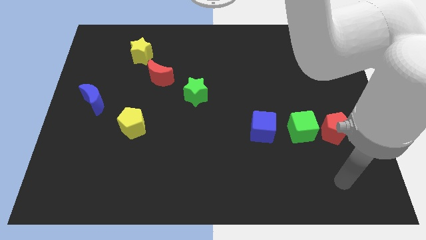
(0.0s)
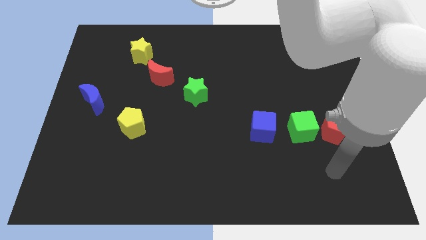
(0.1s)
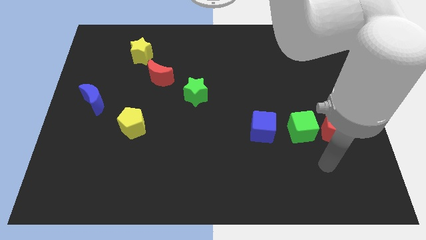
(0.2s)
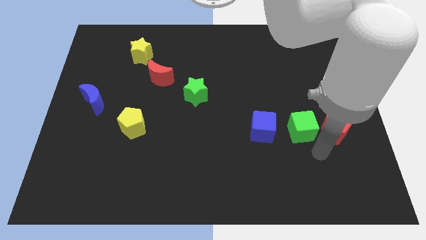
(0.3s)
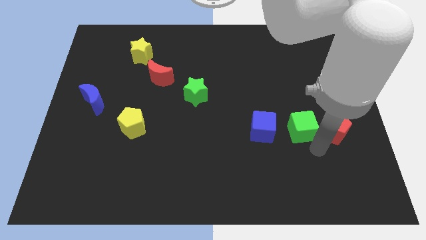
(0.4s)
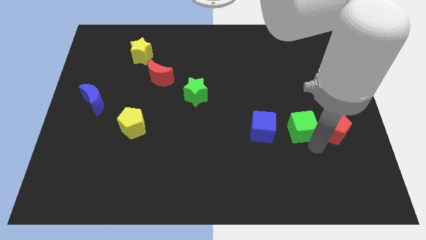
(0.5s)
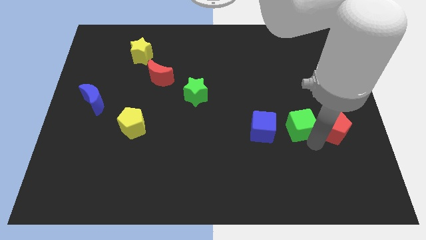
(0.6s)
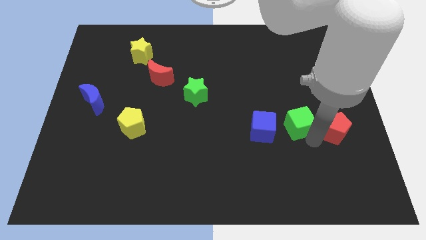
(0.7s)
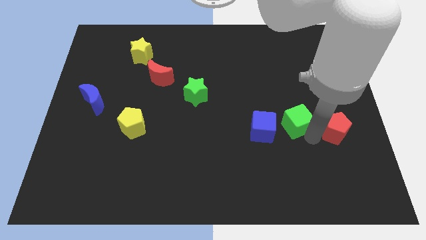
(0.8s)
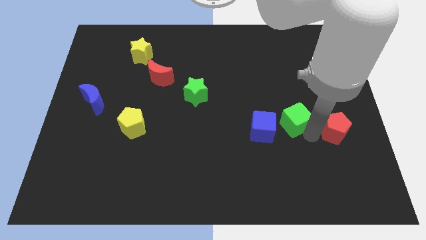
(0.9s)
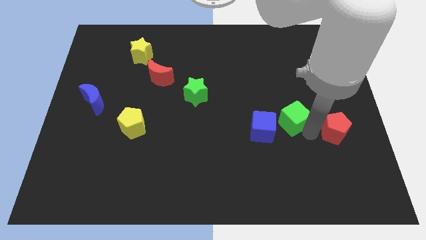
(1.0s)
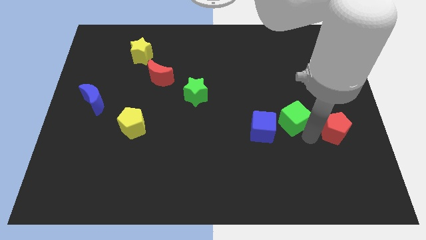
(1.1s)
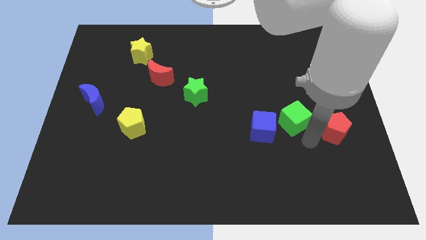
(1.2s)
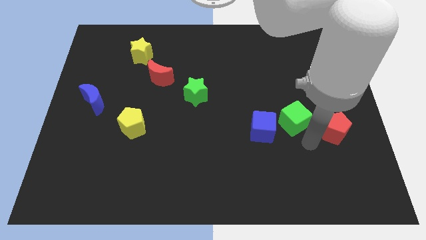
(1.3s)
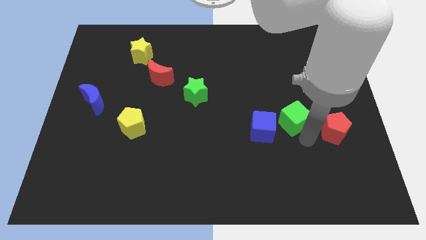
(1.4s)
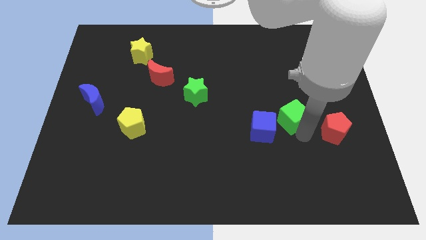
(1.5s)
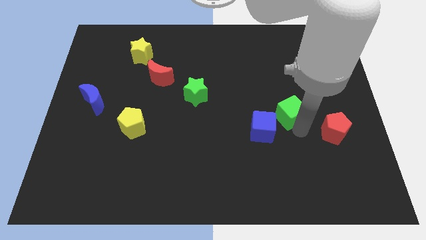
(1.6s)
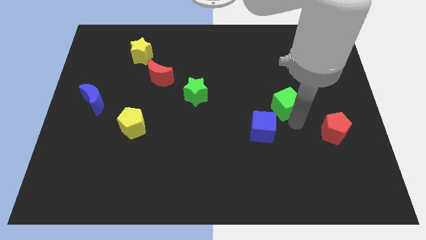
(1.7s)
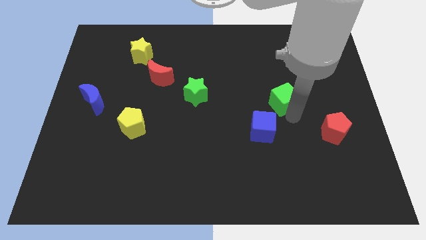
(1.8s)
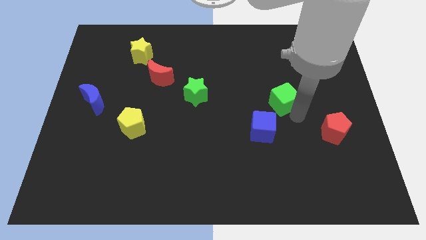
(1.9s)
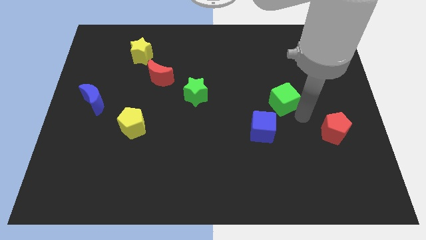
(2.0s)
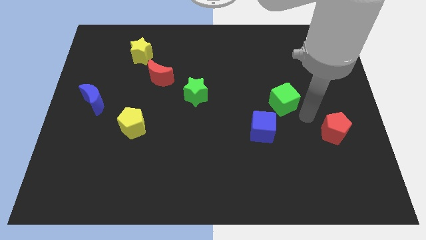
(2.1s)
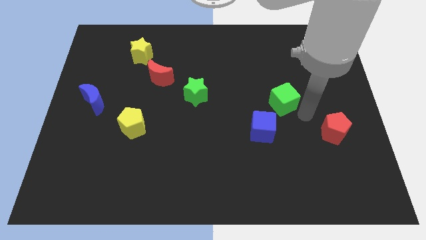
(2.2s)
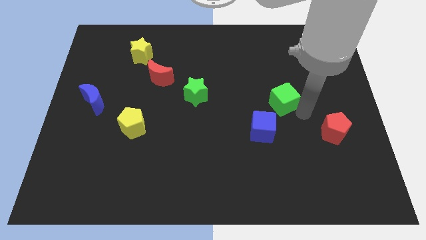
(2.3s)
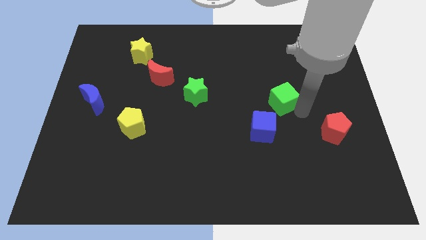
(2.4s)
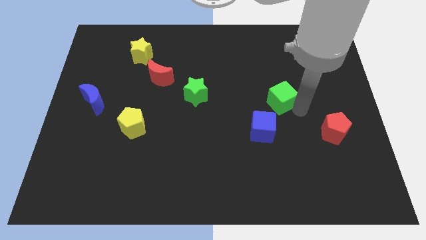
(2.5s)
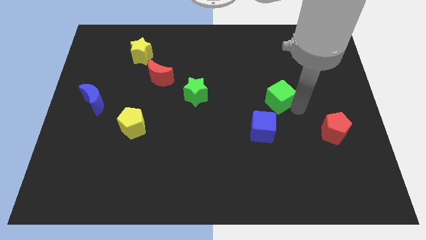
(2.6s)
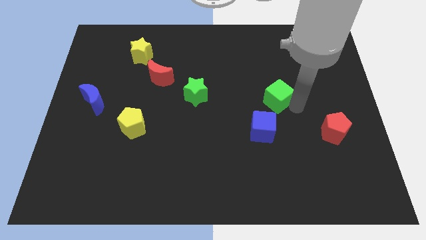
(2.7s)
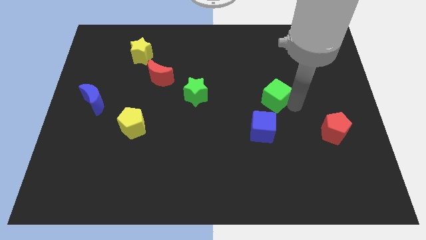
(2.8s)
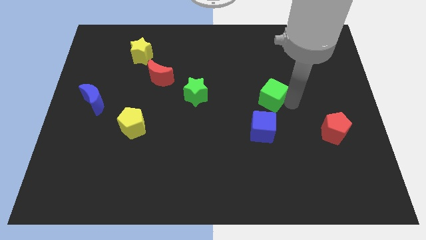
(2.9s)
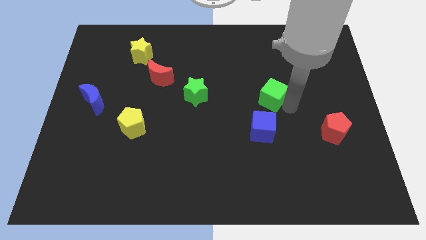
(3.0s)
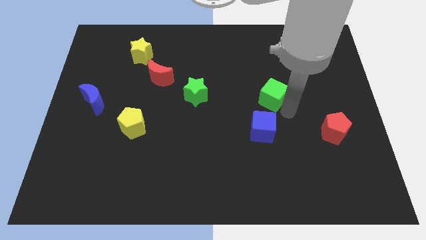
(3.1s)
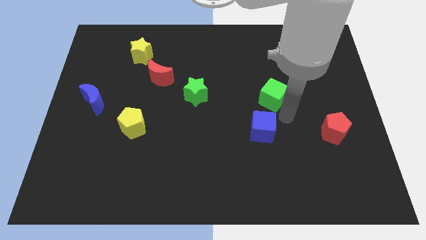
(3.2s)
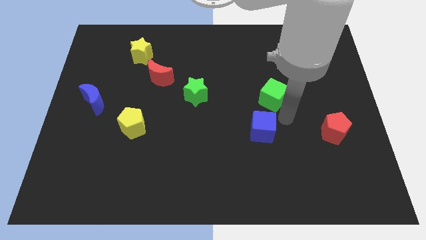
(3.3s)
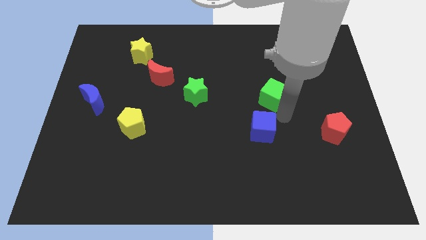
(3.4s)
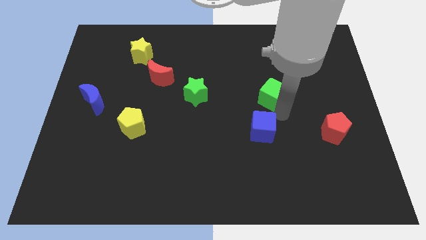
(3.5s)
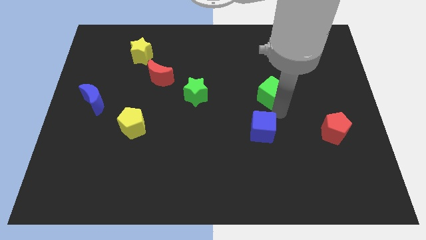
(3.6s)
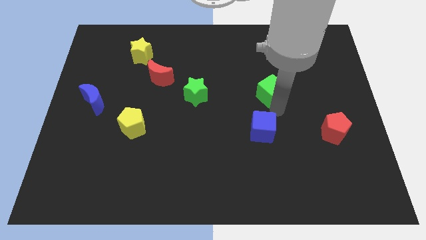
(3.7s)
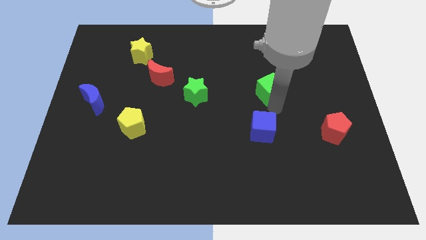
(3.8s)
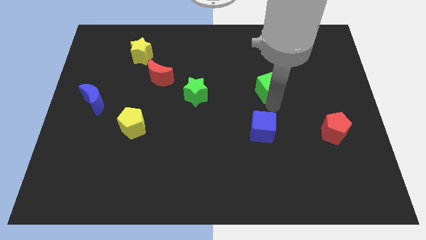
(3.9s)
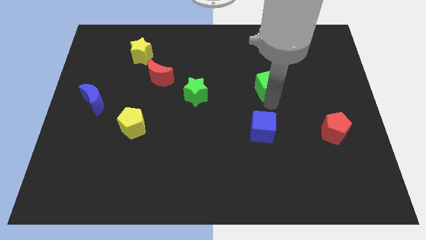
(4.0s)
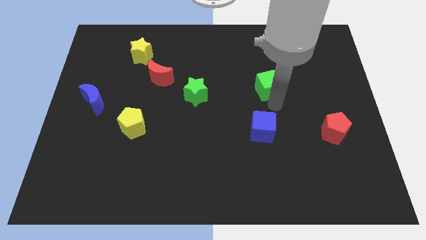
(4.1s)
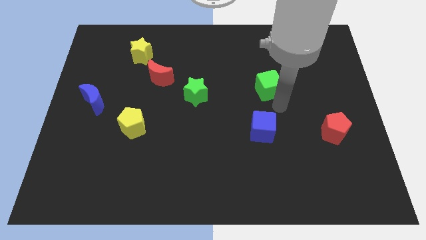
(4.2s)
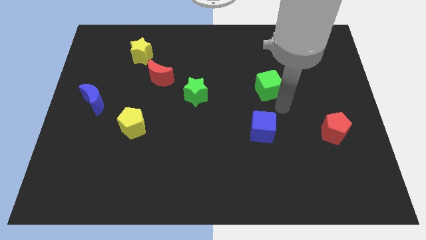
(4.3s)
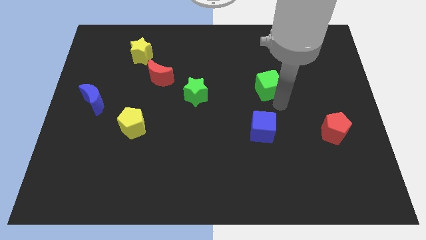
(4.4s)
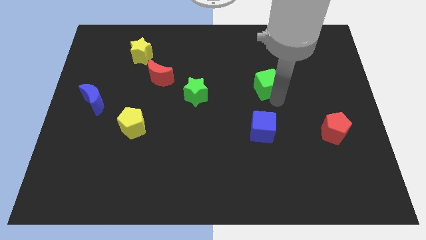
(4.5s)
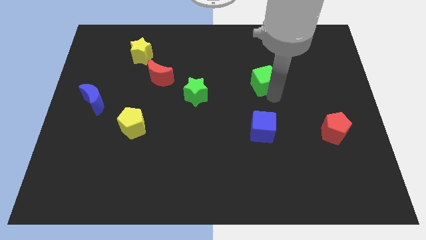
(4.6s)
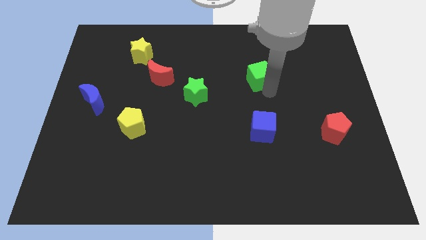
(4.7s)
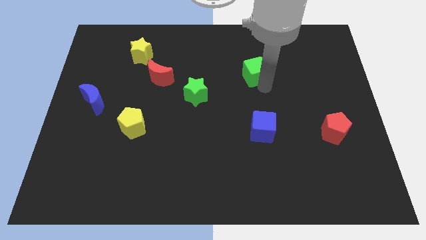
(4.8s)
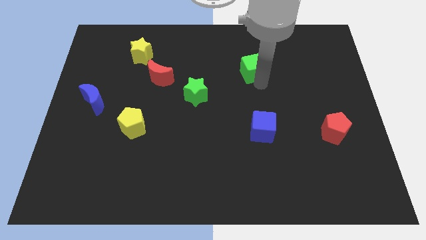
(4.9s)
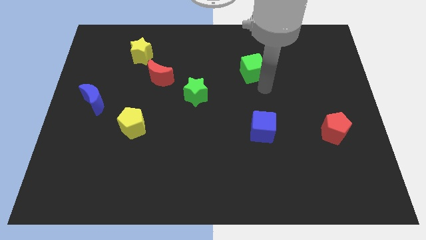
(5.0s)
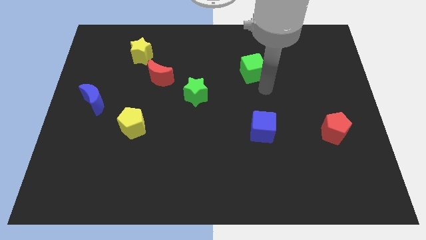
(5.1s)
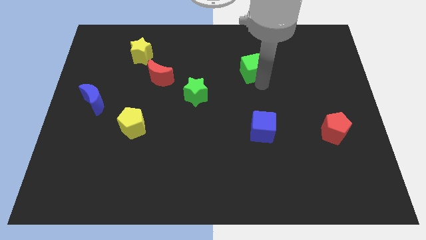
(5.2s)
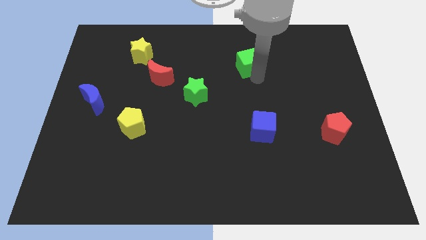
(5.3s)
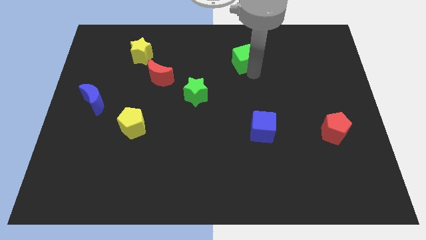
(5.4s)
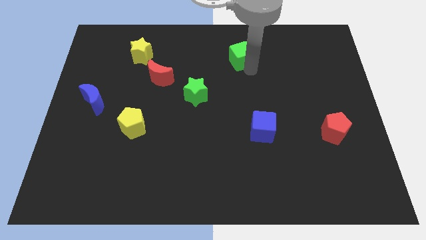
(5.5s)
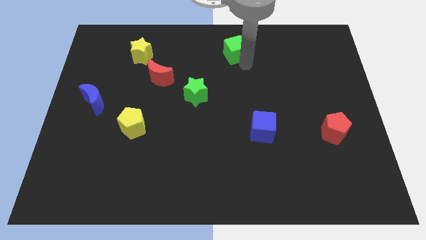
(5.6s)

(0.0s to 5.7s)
slide the green cube to the top side

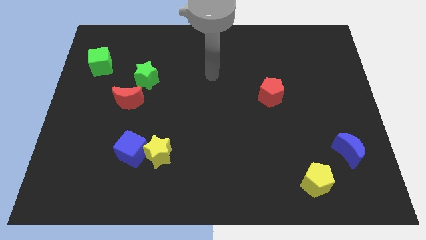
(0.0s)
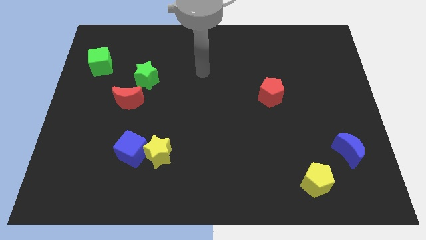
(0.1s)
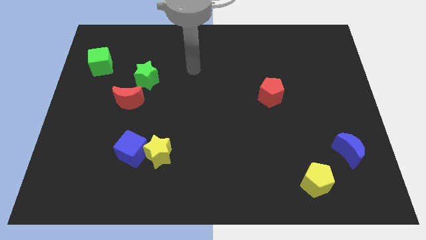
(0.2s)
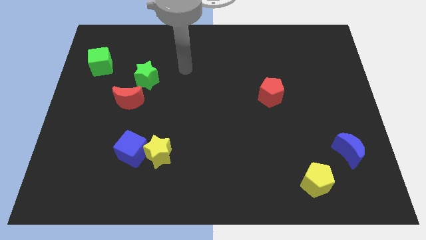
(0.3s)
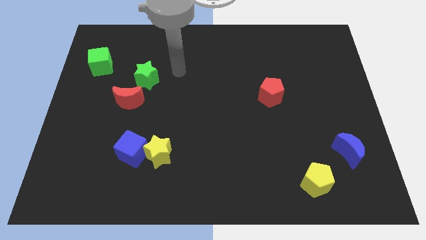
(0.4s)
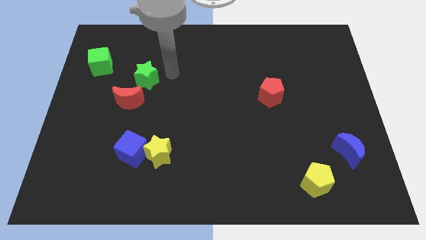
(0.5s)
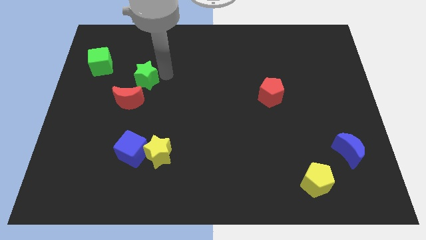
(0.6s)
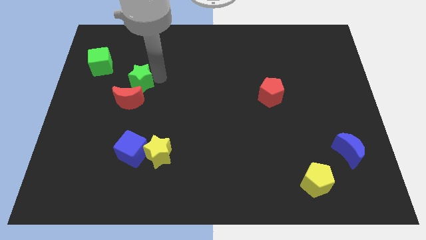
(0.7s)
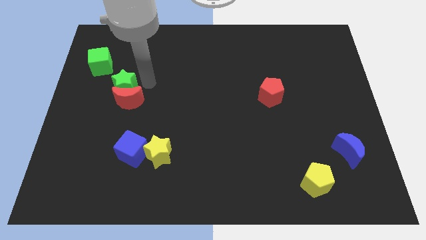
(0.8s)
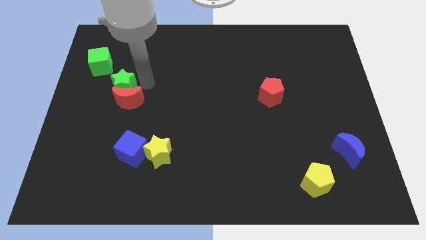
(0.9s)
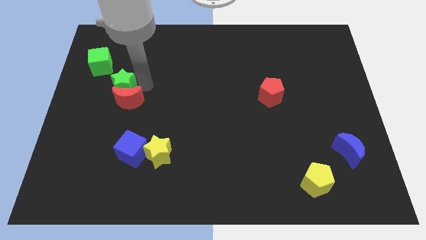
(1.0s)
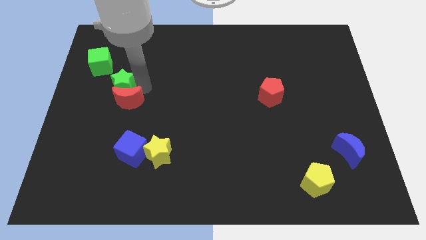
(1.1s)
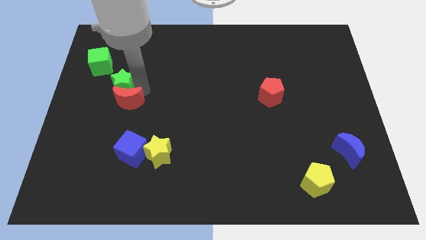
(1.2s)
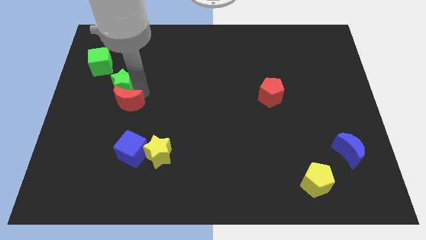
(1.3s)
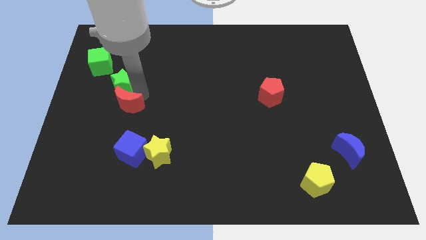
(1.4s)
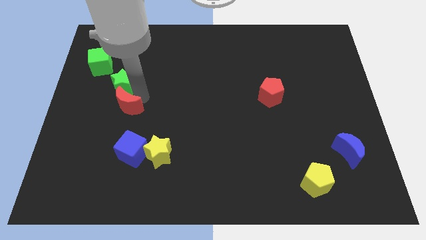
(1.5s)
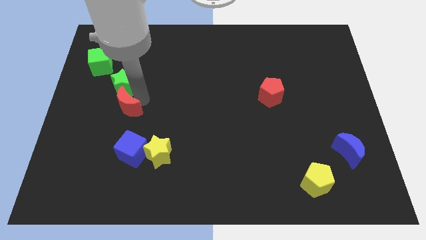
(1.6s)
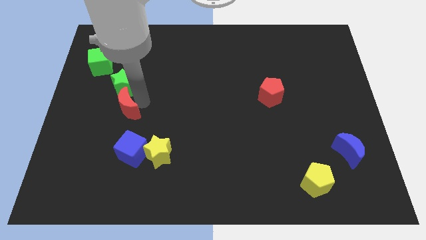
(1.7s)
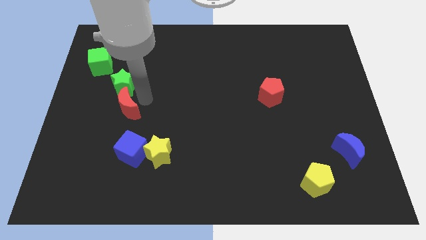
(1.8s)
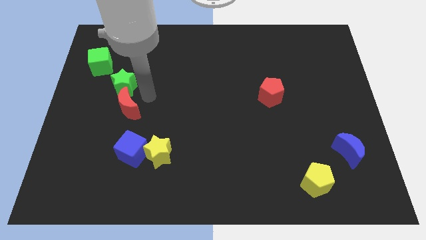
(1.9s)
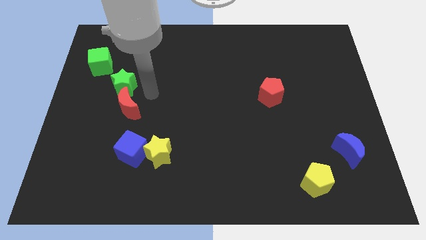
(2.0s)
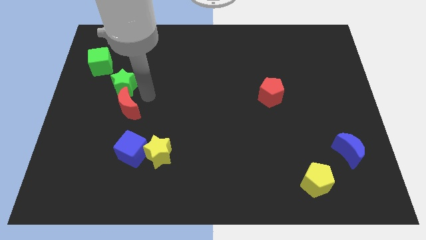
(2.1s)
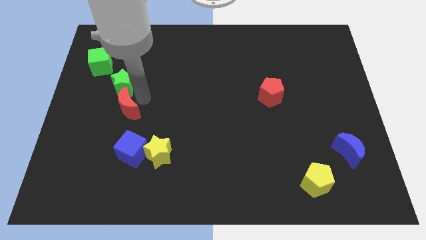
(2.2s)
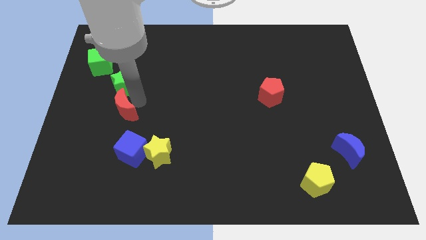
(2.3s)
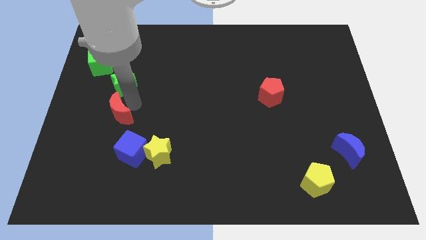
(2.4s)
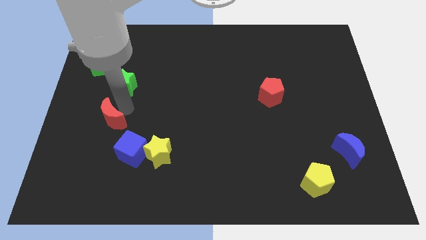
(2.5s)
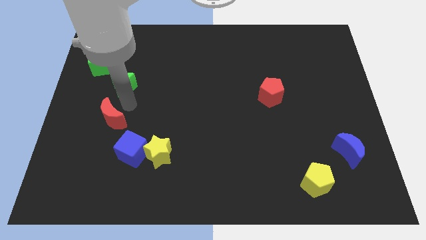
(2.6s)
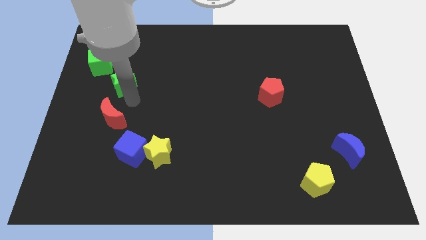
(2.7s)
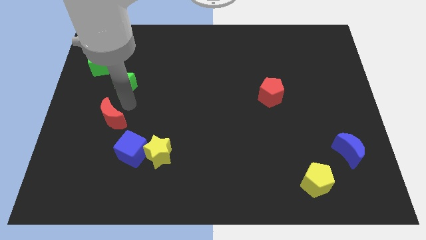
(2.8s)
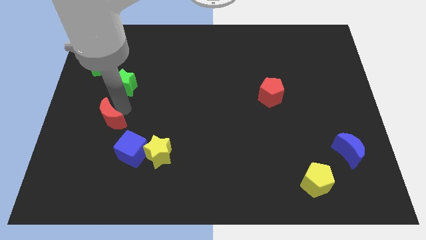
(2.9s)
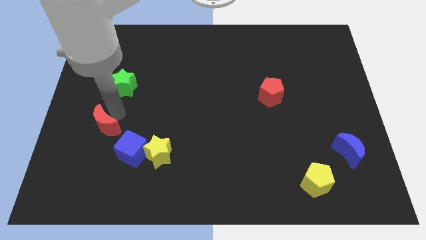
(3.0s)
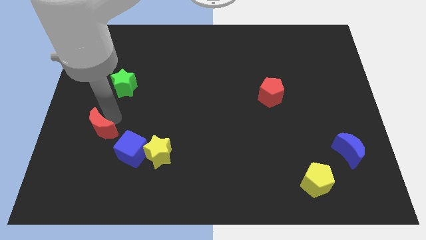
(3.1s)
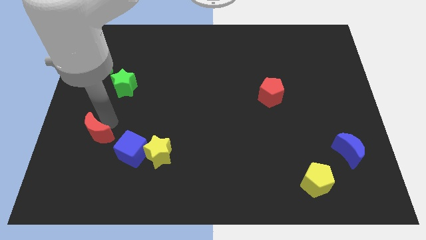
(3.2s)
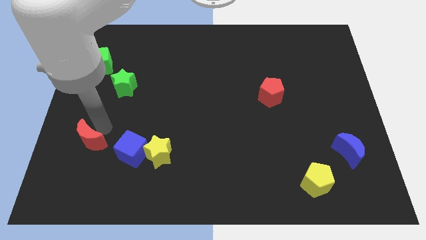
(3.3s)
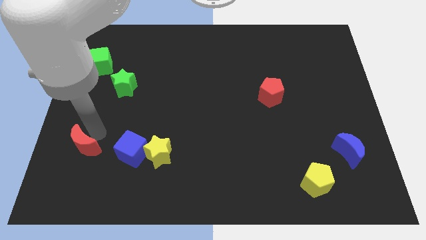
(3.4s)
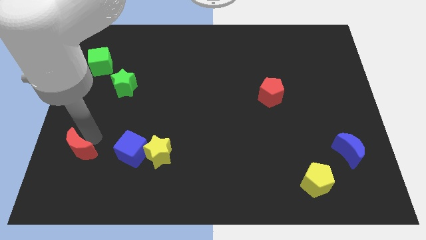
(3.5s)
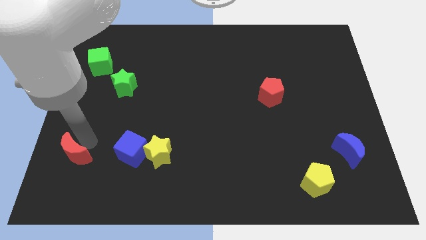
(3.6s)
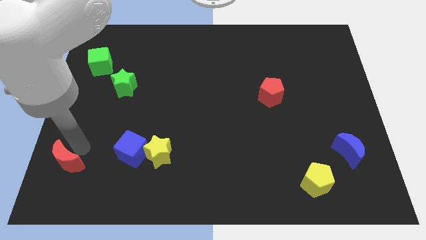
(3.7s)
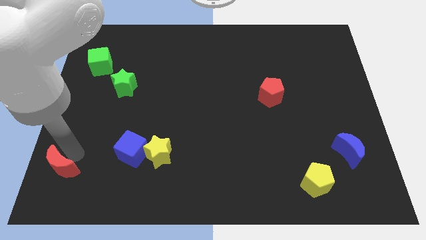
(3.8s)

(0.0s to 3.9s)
move the red moon to the bottom left corner
